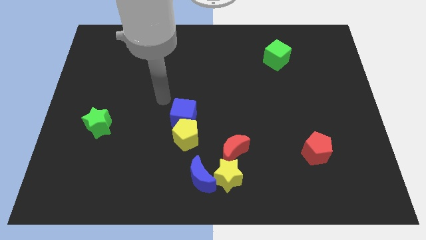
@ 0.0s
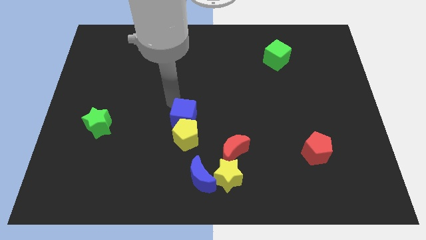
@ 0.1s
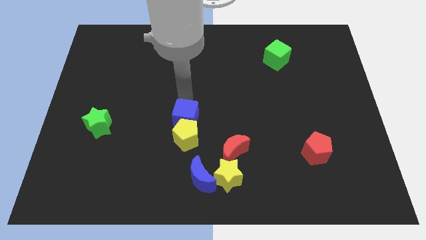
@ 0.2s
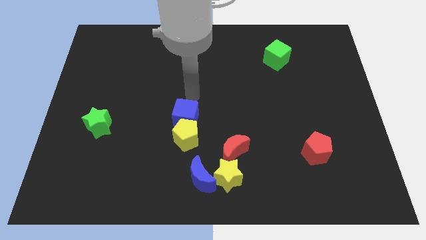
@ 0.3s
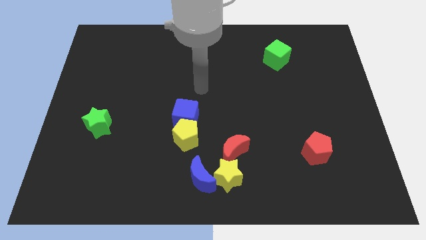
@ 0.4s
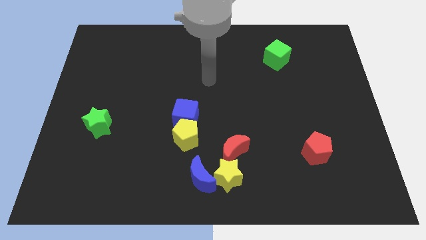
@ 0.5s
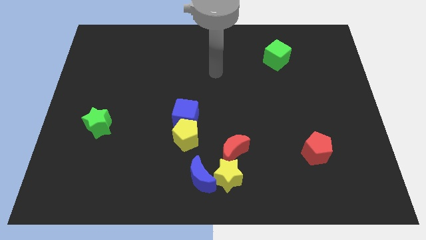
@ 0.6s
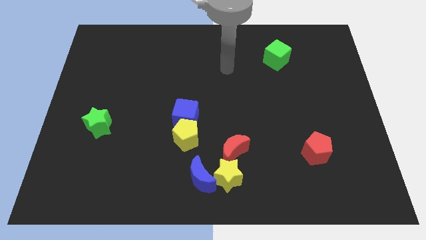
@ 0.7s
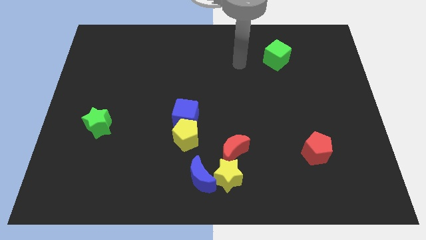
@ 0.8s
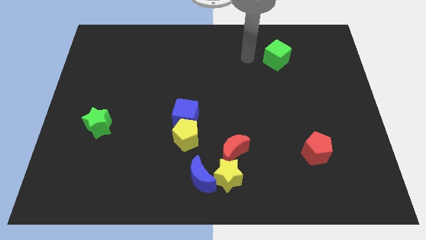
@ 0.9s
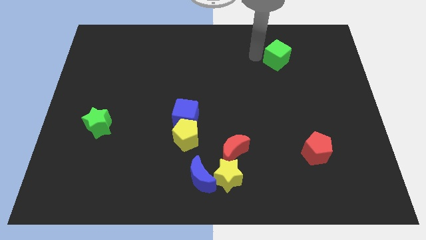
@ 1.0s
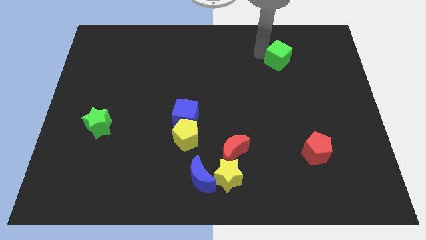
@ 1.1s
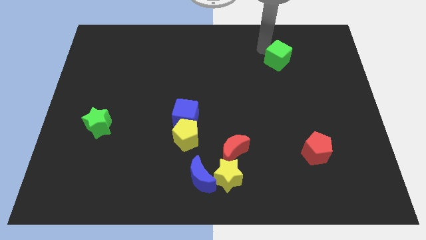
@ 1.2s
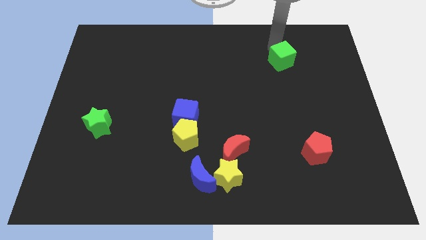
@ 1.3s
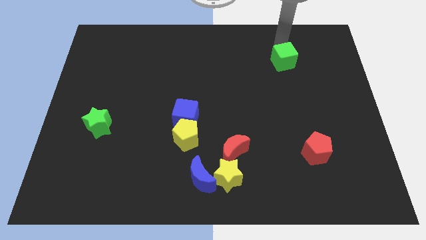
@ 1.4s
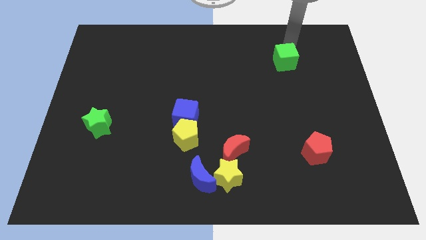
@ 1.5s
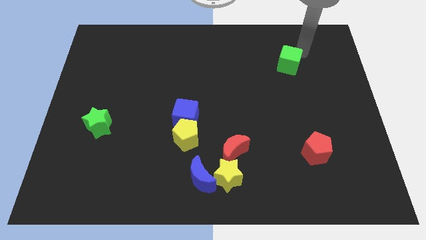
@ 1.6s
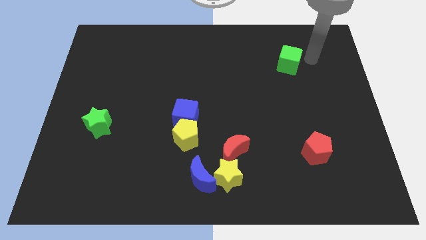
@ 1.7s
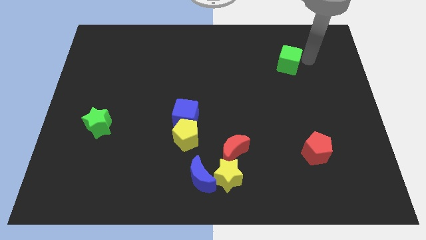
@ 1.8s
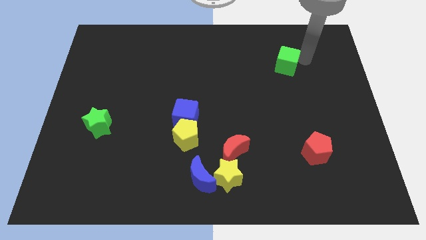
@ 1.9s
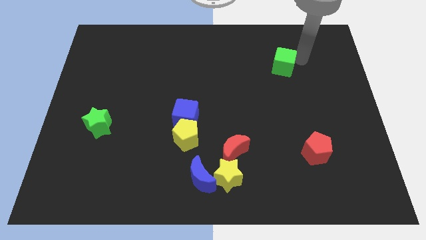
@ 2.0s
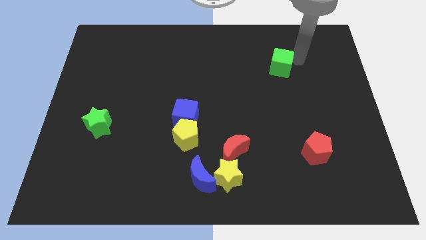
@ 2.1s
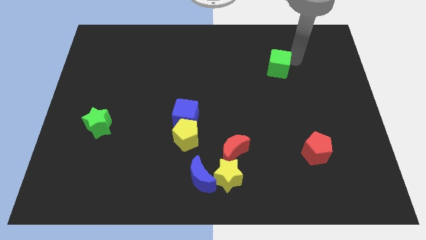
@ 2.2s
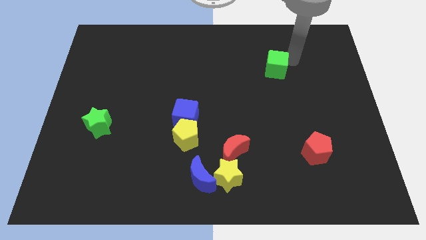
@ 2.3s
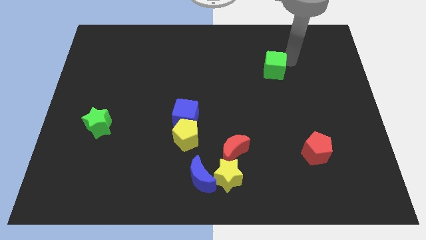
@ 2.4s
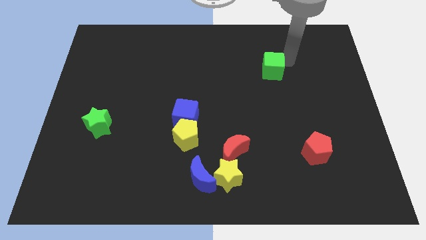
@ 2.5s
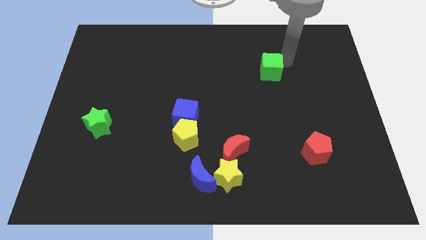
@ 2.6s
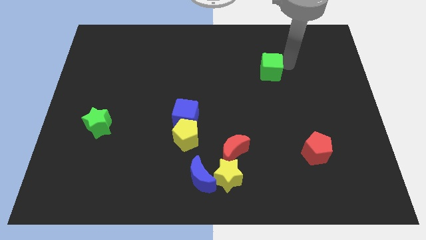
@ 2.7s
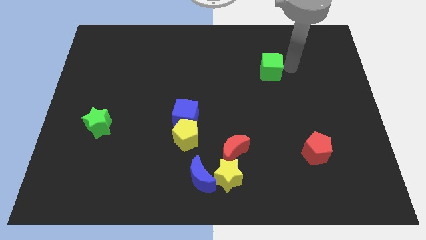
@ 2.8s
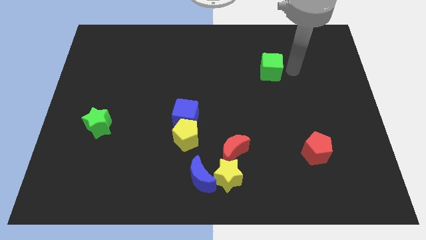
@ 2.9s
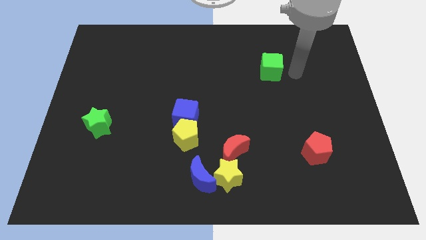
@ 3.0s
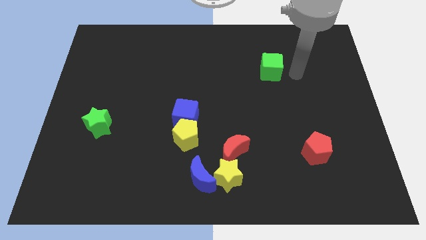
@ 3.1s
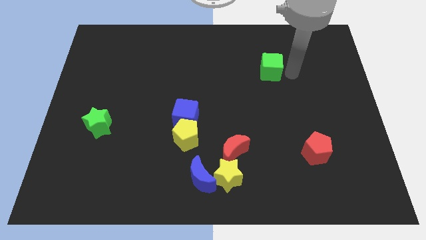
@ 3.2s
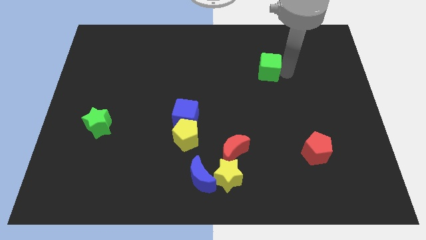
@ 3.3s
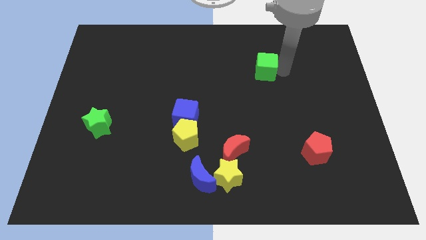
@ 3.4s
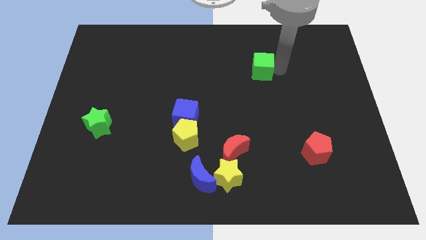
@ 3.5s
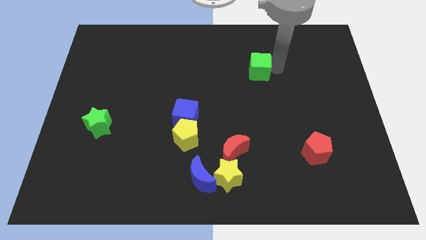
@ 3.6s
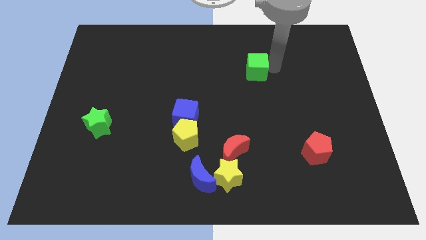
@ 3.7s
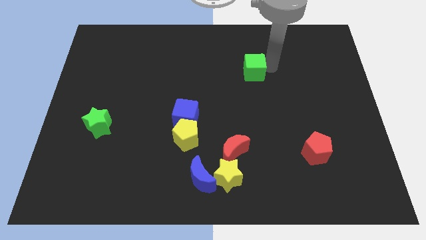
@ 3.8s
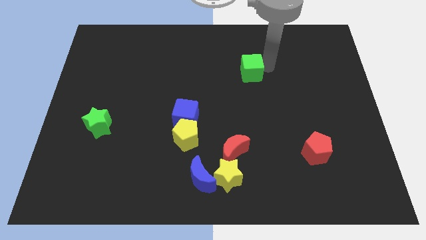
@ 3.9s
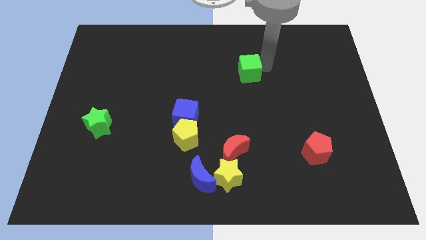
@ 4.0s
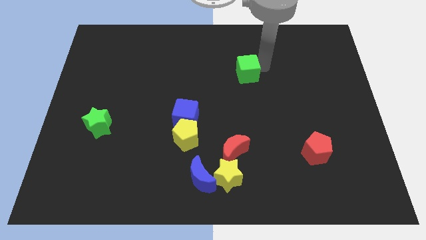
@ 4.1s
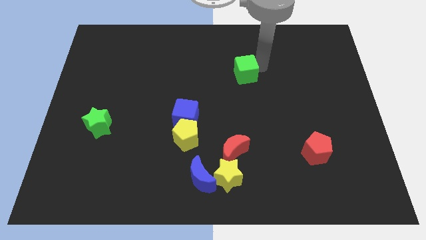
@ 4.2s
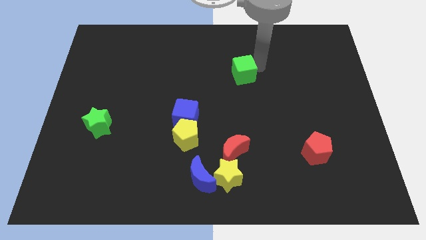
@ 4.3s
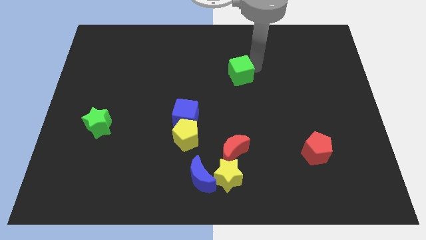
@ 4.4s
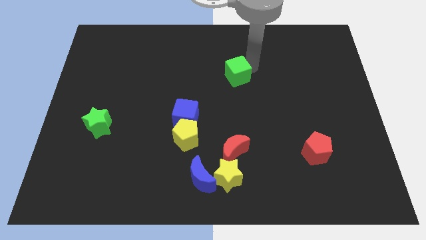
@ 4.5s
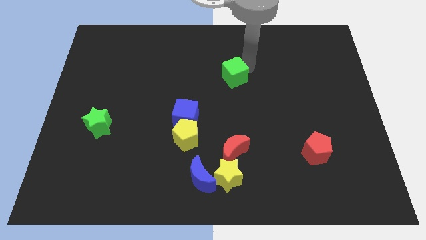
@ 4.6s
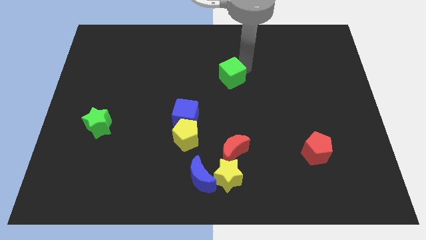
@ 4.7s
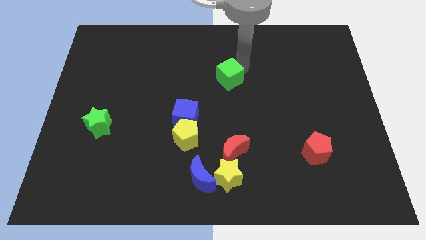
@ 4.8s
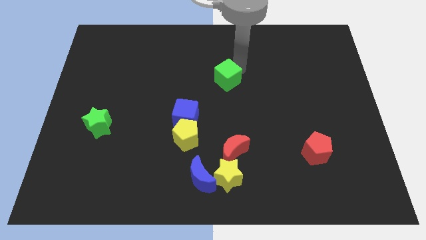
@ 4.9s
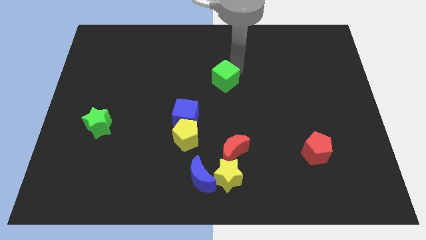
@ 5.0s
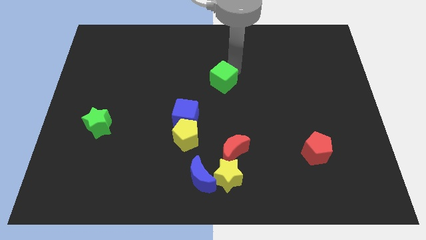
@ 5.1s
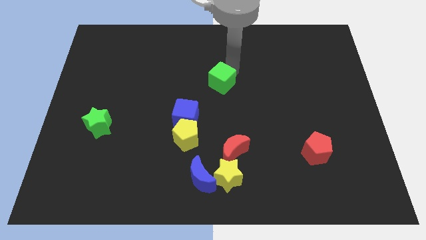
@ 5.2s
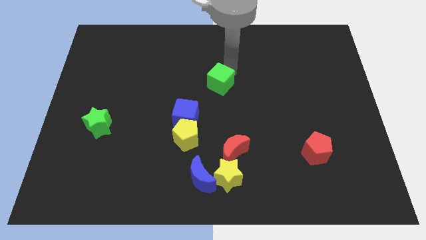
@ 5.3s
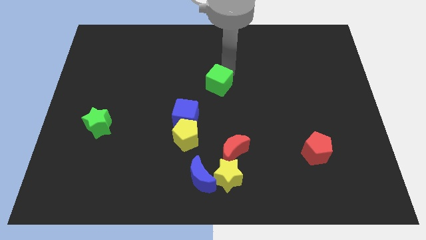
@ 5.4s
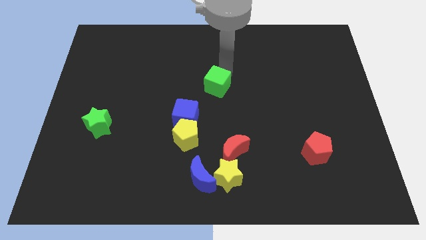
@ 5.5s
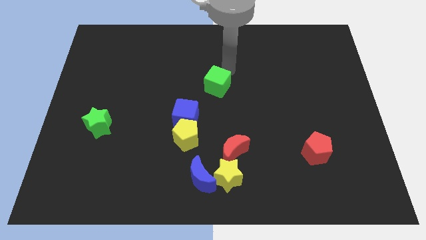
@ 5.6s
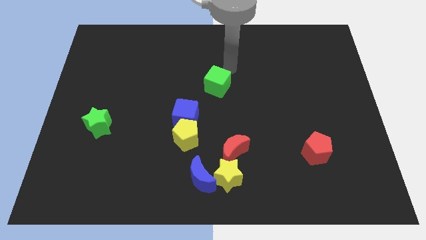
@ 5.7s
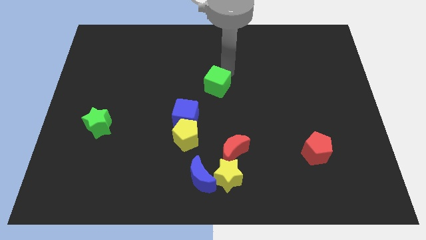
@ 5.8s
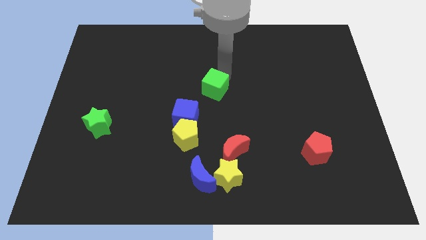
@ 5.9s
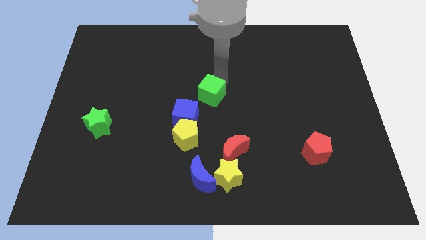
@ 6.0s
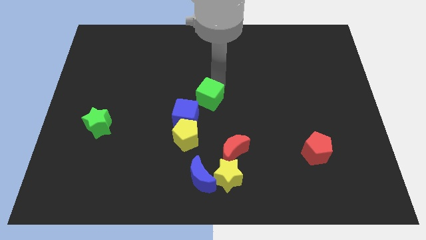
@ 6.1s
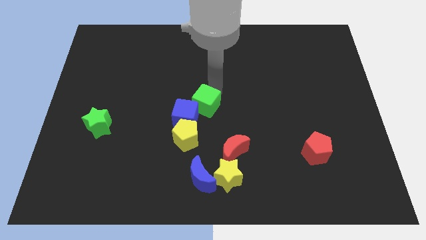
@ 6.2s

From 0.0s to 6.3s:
move the green cube to the blue cube

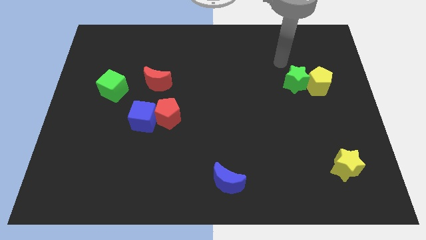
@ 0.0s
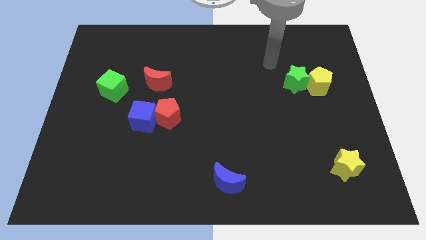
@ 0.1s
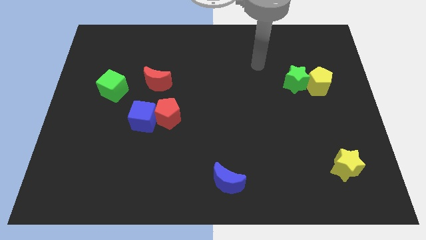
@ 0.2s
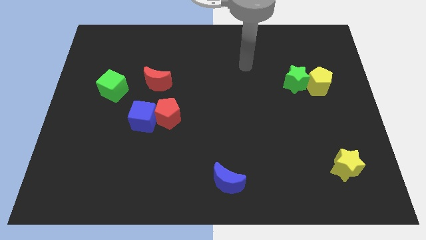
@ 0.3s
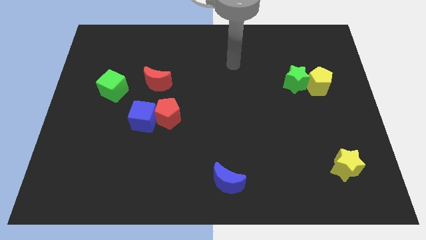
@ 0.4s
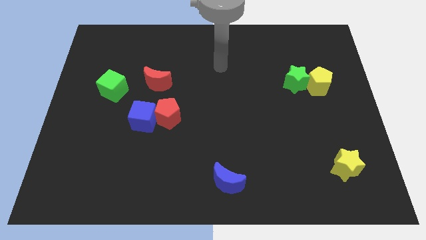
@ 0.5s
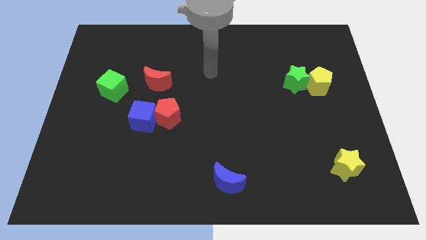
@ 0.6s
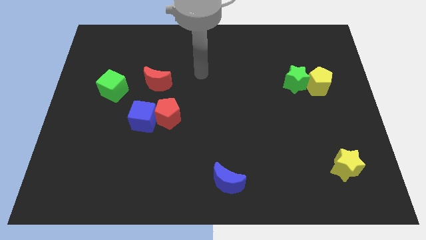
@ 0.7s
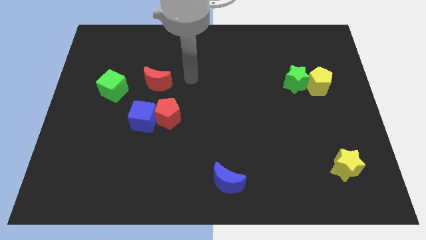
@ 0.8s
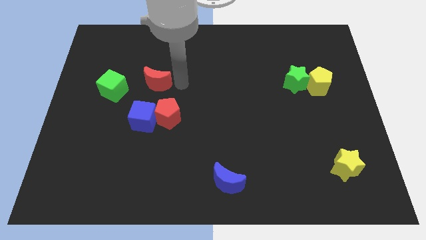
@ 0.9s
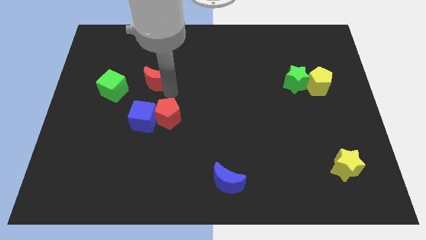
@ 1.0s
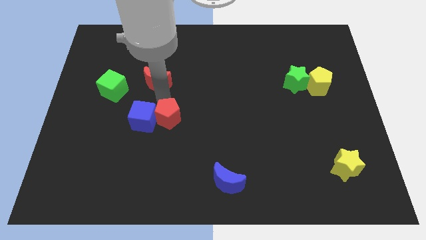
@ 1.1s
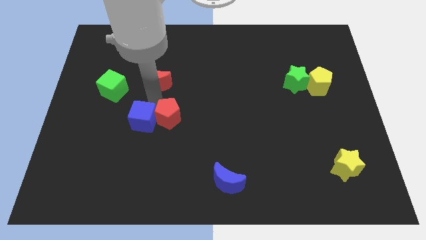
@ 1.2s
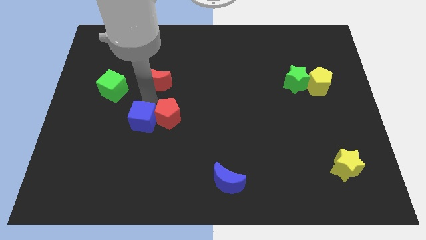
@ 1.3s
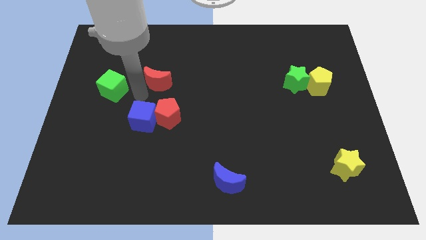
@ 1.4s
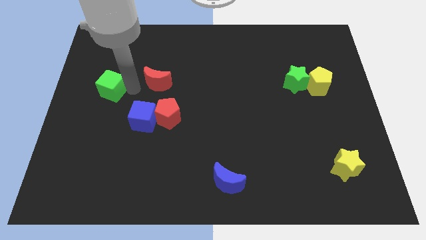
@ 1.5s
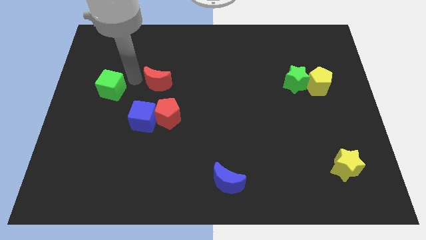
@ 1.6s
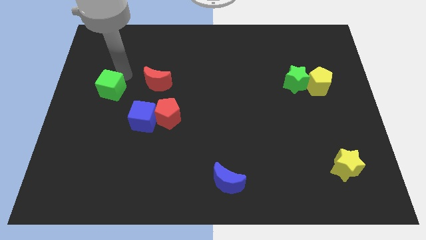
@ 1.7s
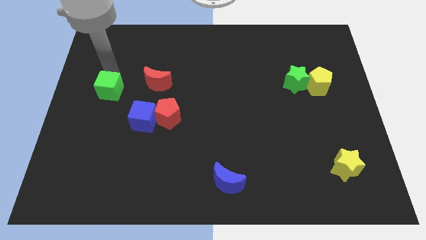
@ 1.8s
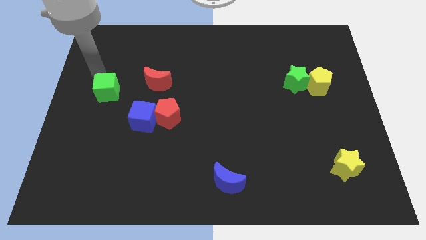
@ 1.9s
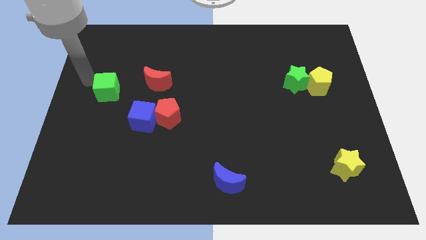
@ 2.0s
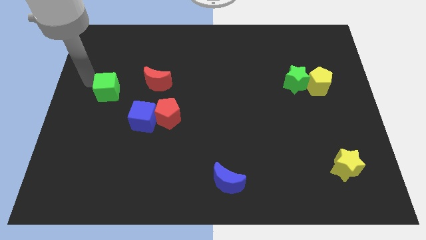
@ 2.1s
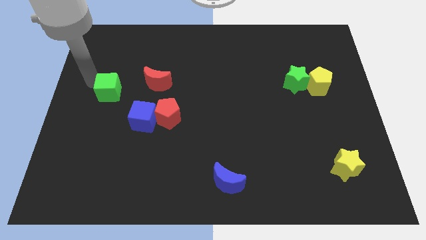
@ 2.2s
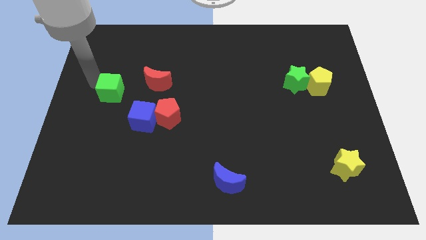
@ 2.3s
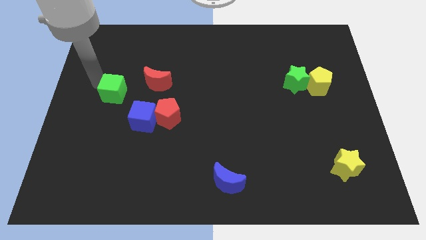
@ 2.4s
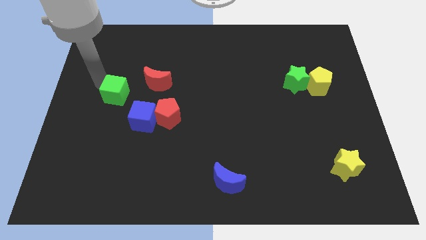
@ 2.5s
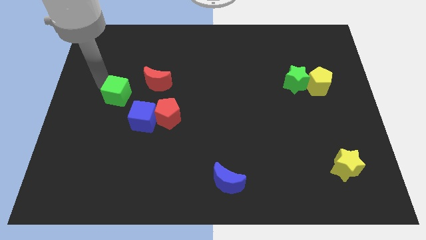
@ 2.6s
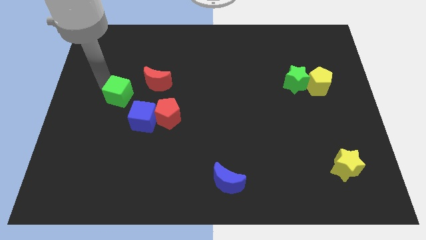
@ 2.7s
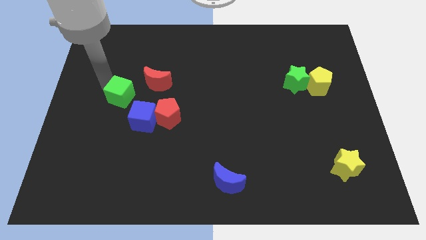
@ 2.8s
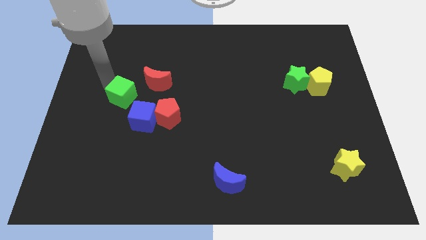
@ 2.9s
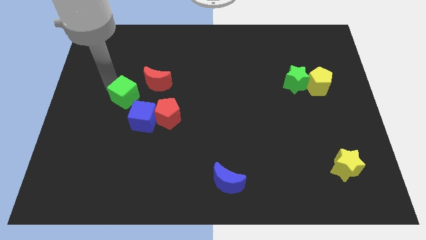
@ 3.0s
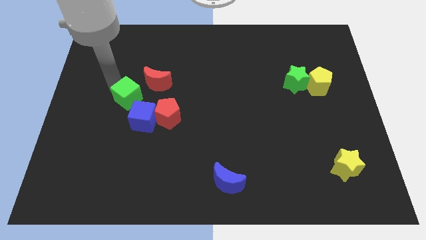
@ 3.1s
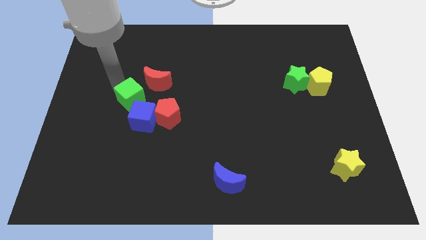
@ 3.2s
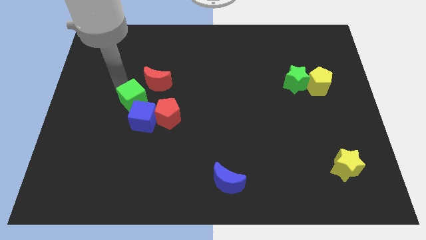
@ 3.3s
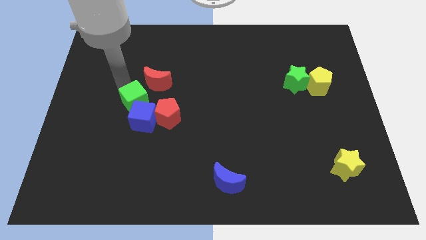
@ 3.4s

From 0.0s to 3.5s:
slide the green cube next to the blue cube
